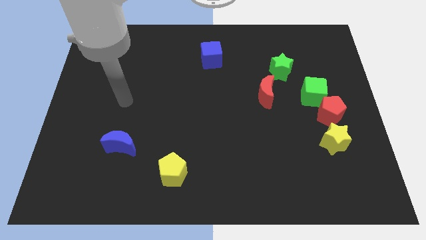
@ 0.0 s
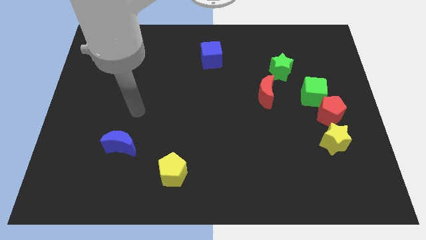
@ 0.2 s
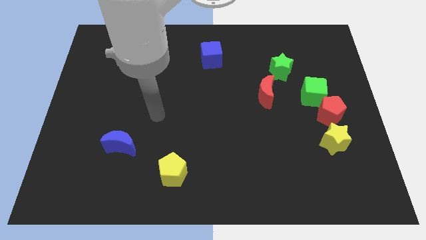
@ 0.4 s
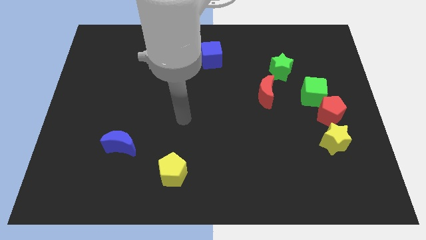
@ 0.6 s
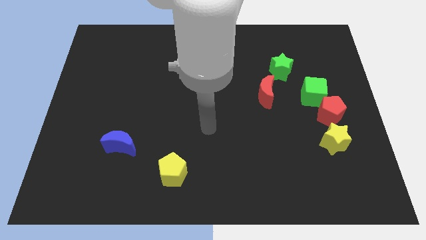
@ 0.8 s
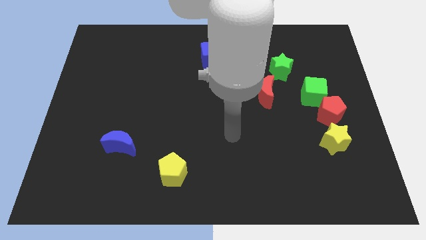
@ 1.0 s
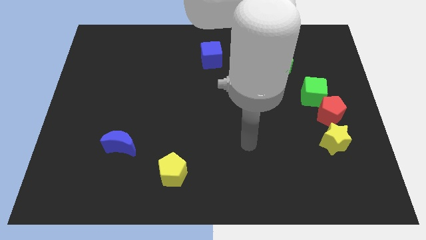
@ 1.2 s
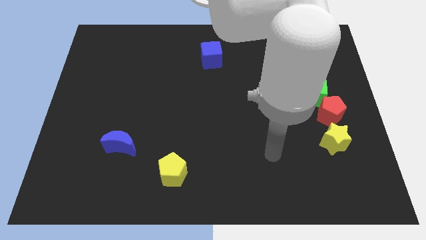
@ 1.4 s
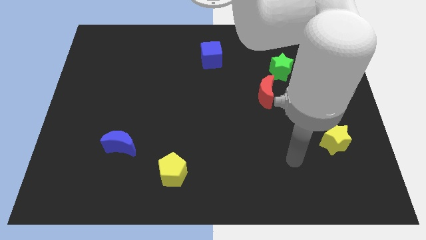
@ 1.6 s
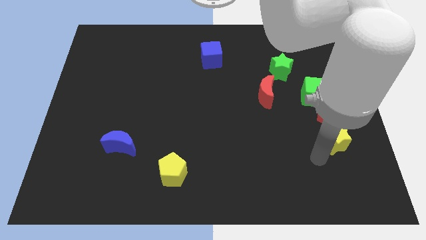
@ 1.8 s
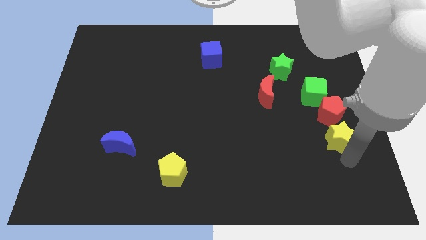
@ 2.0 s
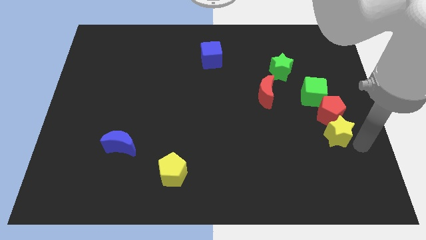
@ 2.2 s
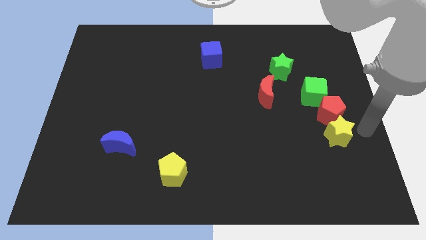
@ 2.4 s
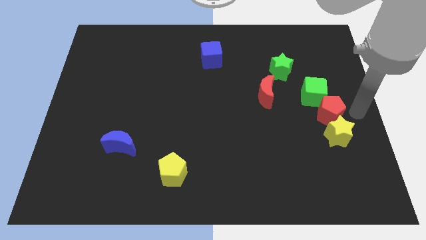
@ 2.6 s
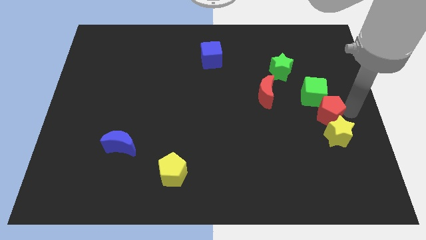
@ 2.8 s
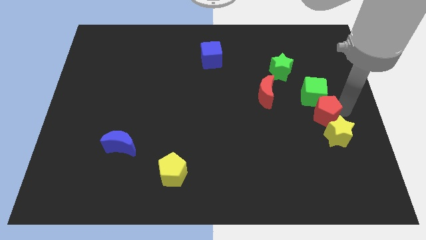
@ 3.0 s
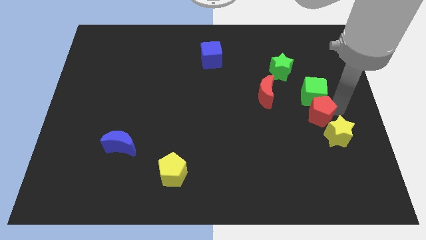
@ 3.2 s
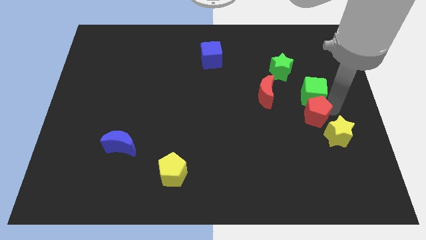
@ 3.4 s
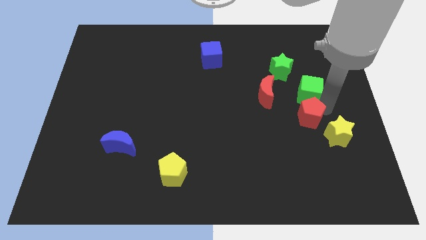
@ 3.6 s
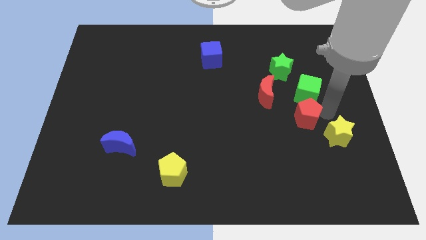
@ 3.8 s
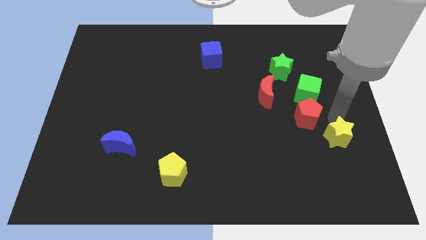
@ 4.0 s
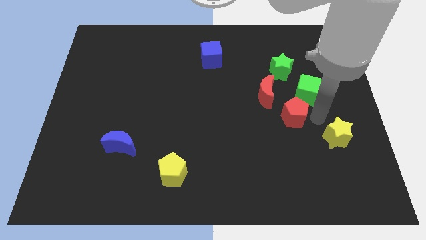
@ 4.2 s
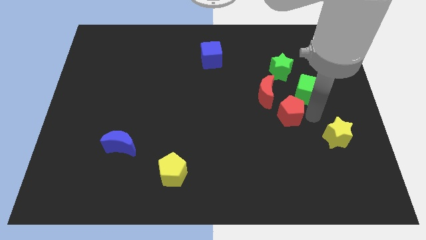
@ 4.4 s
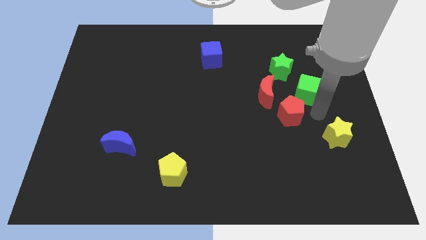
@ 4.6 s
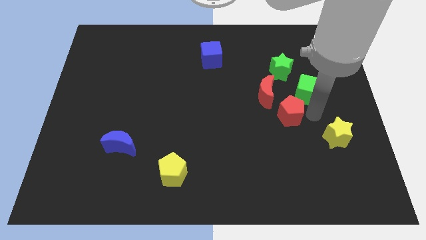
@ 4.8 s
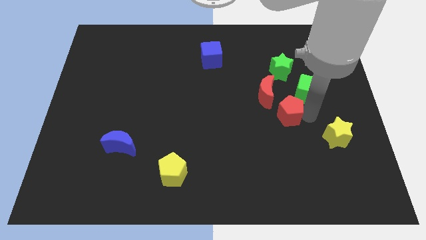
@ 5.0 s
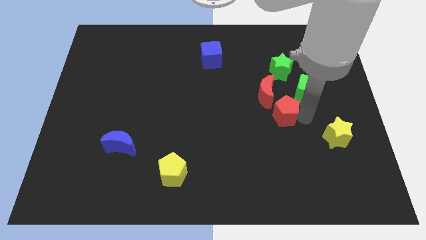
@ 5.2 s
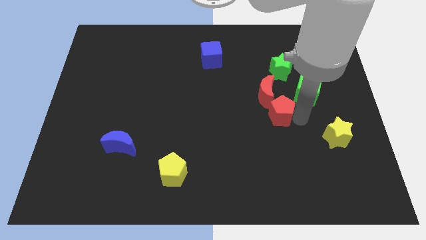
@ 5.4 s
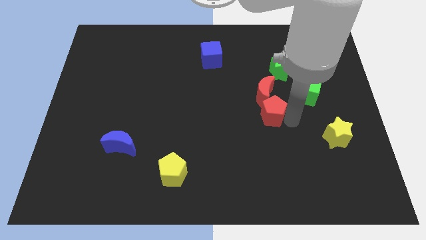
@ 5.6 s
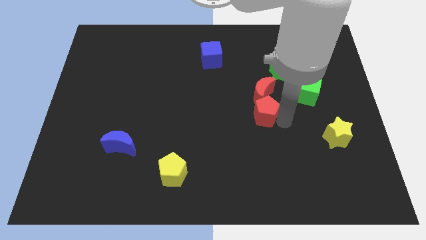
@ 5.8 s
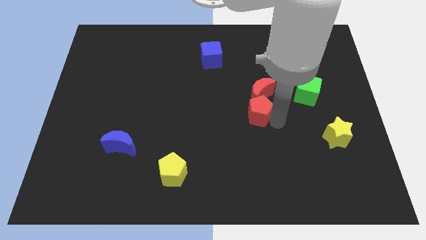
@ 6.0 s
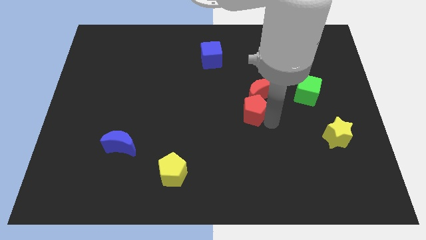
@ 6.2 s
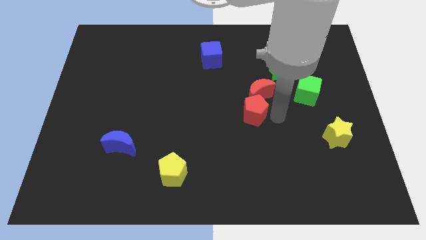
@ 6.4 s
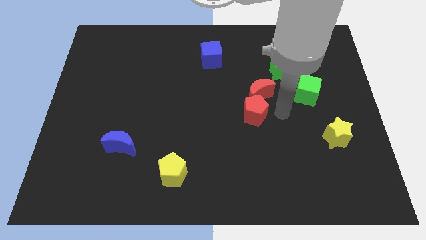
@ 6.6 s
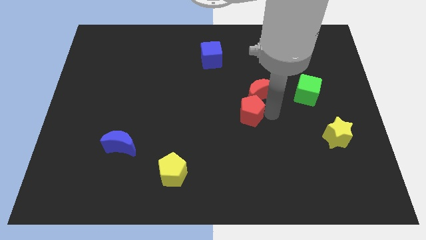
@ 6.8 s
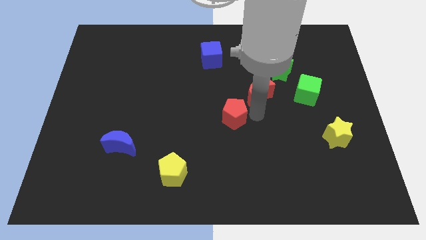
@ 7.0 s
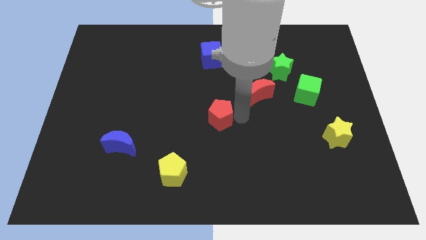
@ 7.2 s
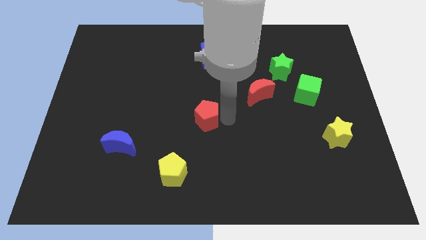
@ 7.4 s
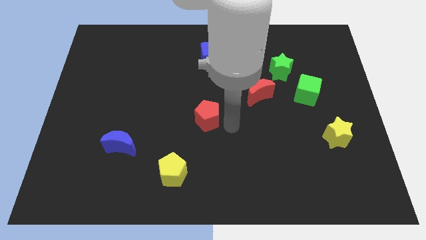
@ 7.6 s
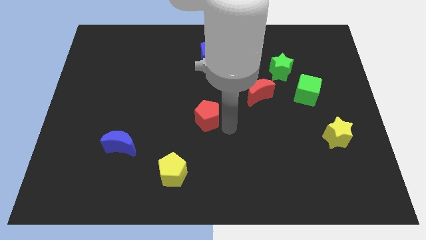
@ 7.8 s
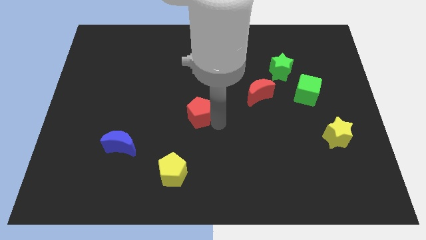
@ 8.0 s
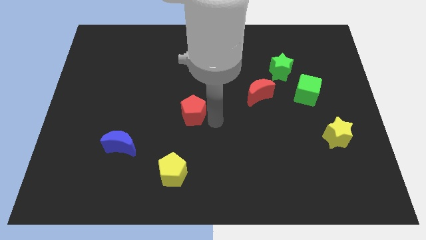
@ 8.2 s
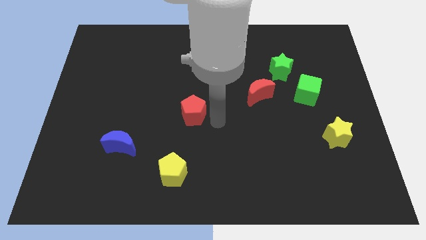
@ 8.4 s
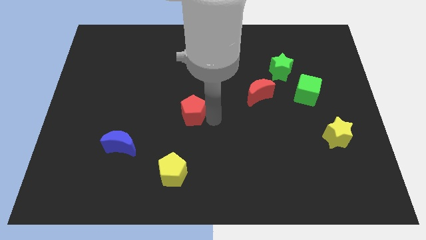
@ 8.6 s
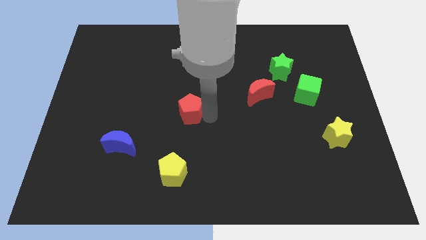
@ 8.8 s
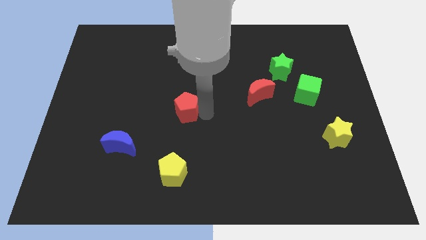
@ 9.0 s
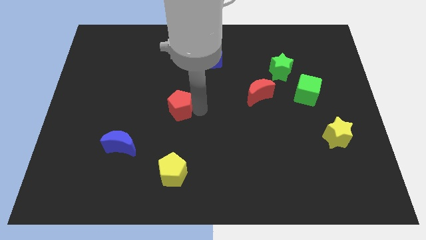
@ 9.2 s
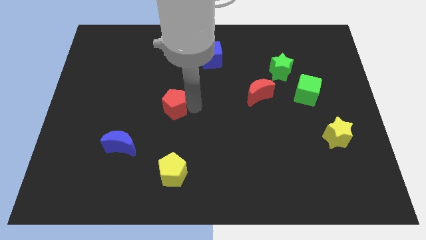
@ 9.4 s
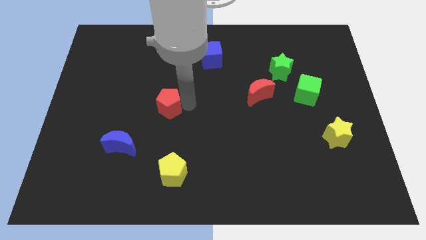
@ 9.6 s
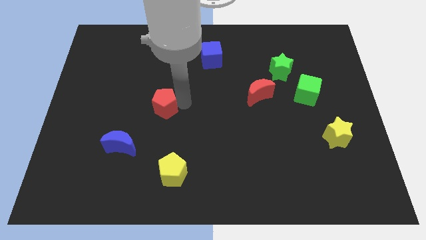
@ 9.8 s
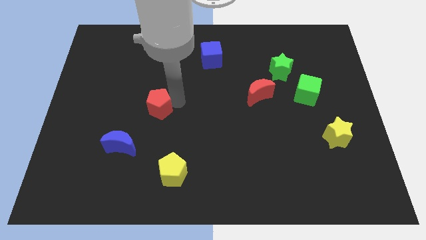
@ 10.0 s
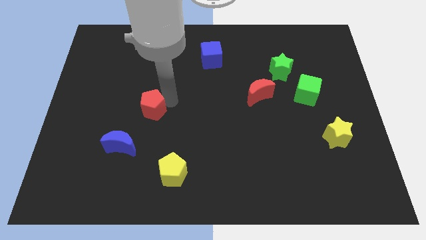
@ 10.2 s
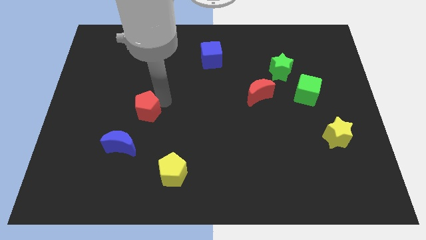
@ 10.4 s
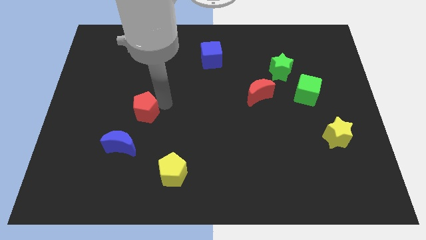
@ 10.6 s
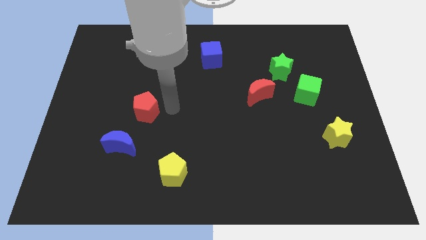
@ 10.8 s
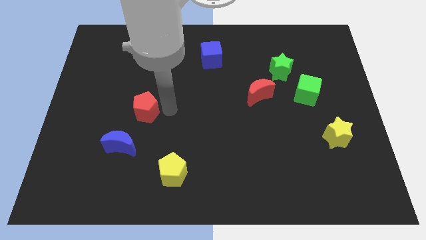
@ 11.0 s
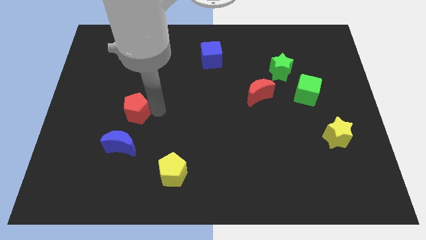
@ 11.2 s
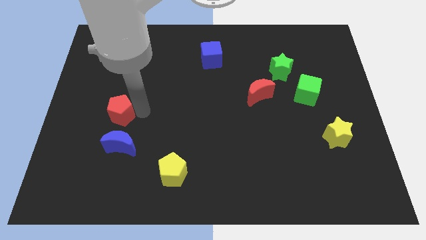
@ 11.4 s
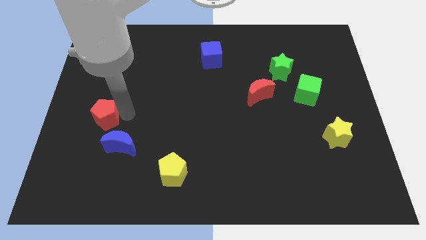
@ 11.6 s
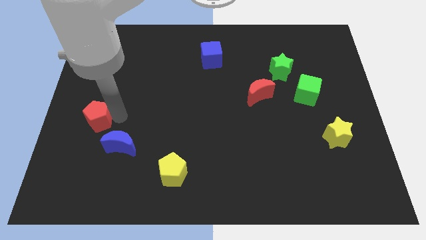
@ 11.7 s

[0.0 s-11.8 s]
put the red pentagon to the center left

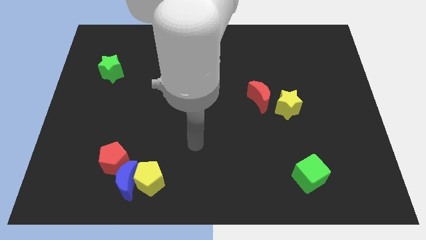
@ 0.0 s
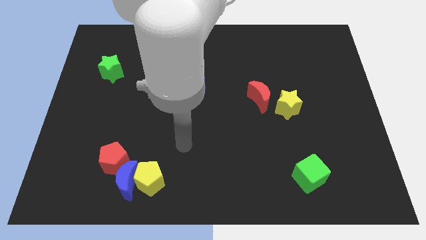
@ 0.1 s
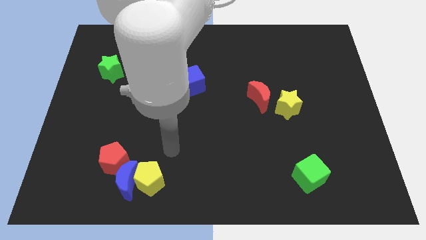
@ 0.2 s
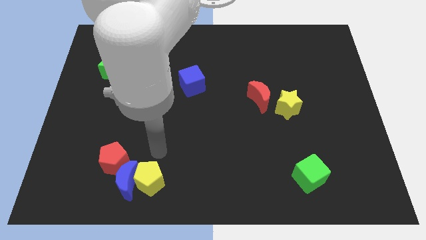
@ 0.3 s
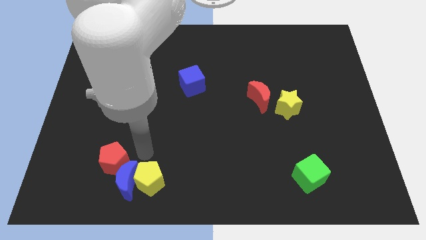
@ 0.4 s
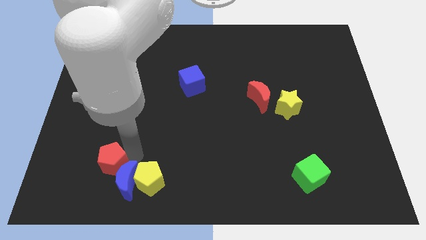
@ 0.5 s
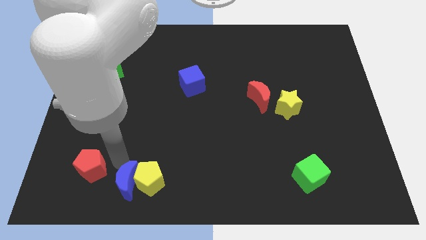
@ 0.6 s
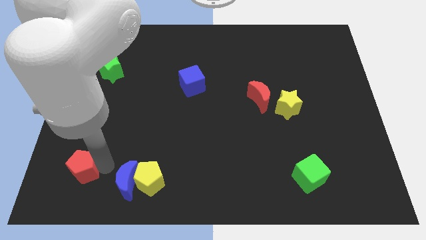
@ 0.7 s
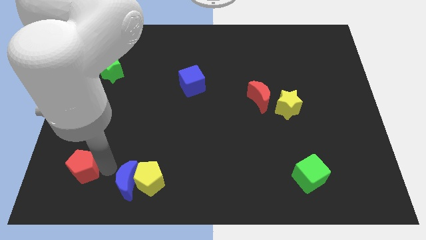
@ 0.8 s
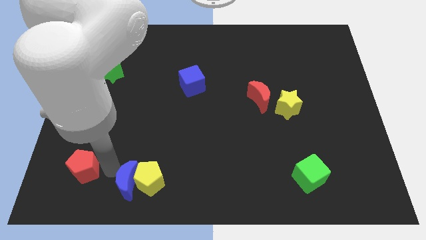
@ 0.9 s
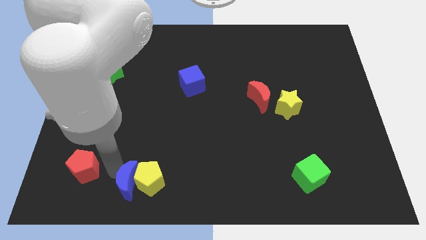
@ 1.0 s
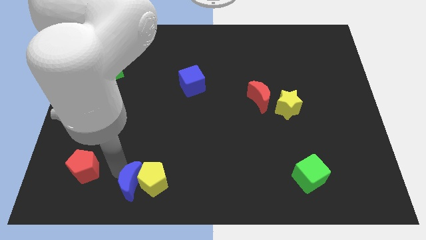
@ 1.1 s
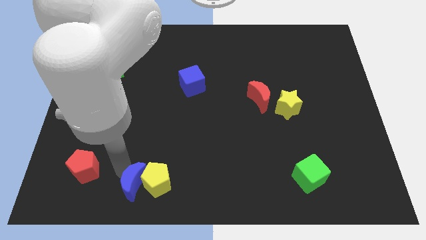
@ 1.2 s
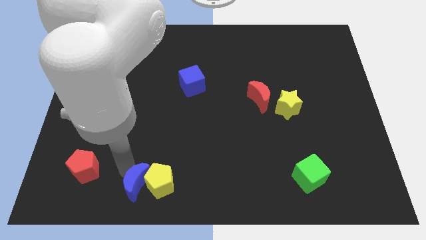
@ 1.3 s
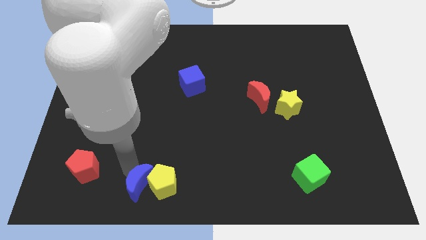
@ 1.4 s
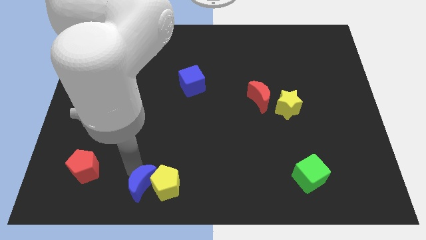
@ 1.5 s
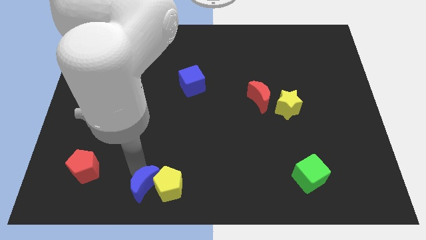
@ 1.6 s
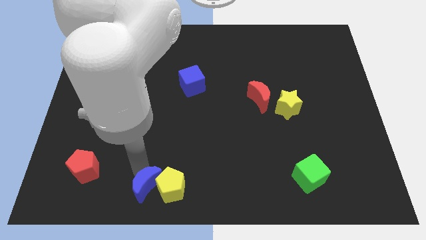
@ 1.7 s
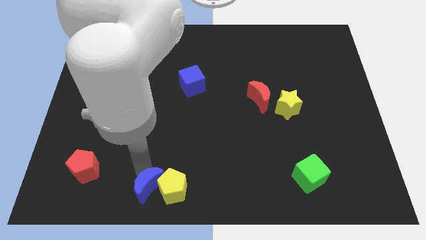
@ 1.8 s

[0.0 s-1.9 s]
slide the blue moon to the bottom
